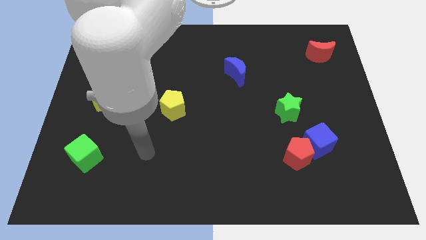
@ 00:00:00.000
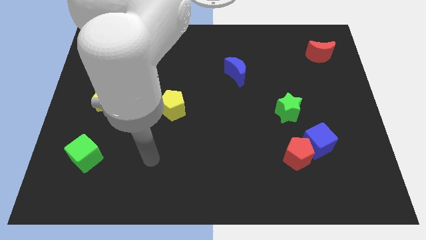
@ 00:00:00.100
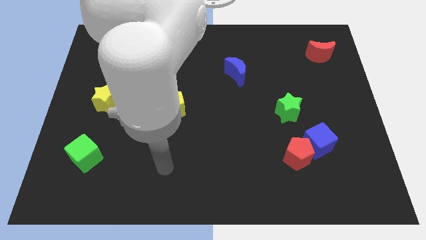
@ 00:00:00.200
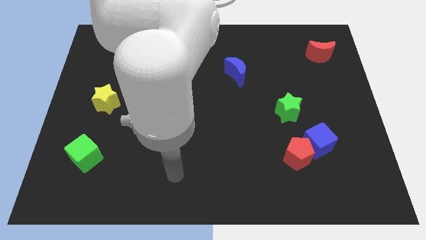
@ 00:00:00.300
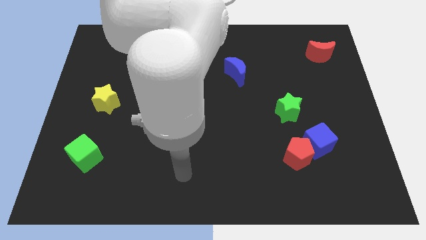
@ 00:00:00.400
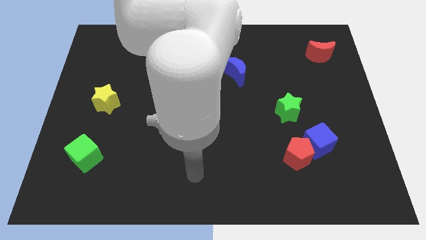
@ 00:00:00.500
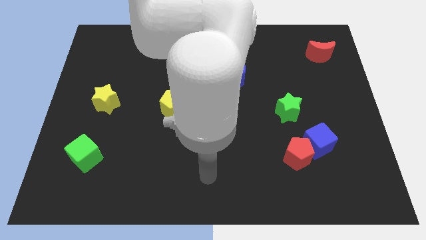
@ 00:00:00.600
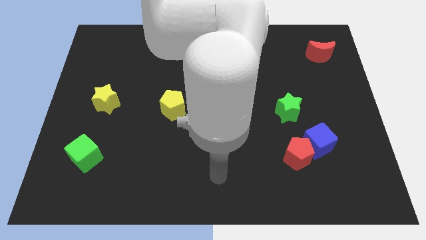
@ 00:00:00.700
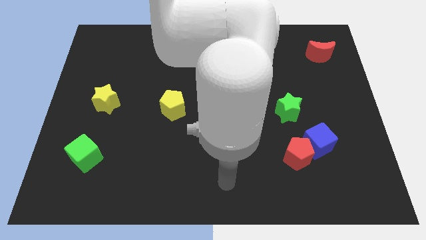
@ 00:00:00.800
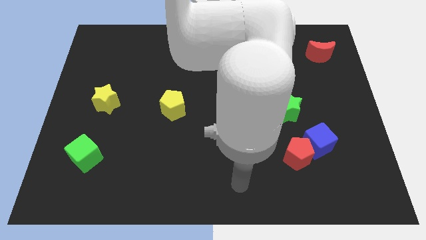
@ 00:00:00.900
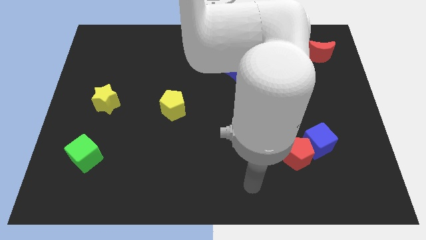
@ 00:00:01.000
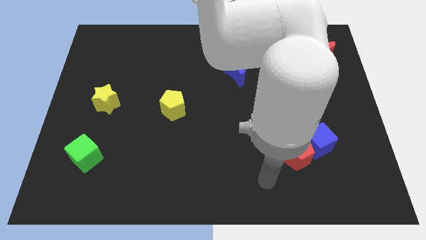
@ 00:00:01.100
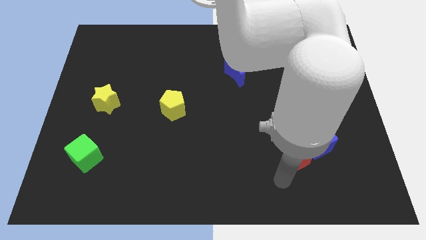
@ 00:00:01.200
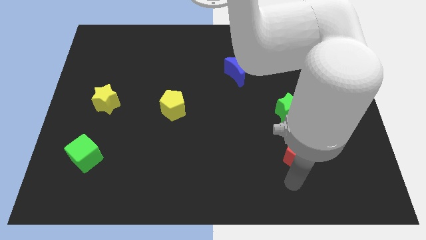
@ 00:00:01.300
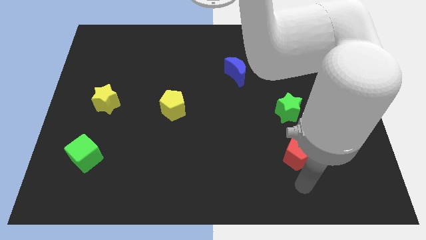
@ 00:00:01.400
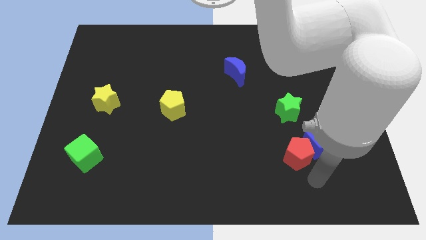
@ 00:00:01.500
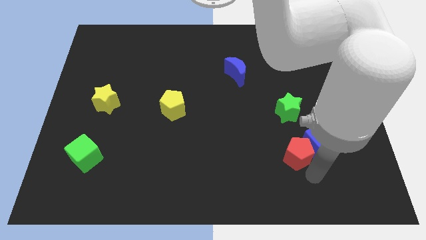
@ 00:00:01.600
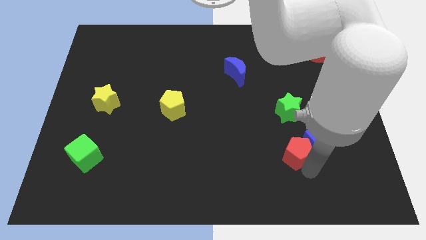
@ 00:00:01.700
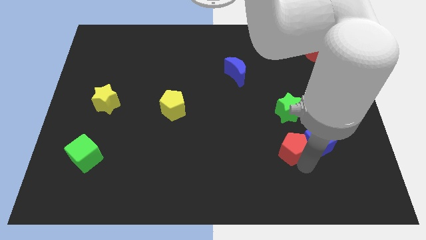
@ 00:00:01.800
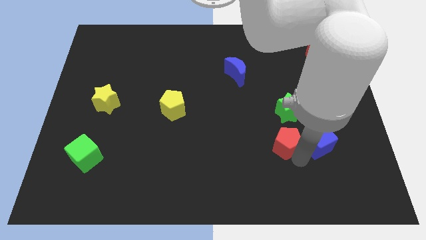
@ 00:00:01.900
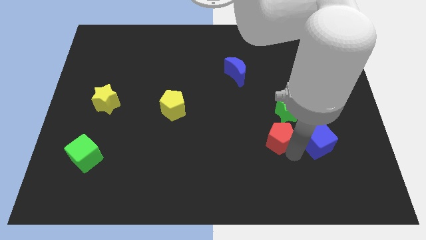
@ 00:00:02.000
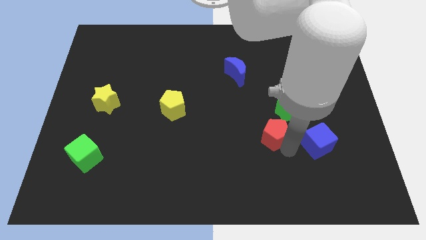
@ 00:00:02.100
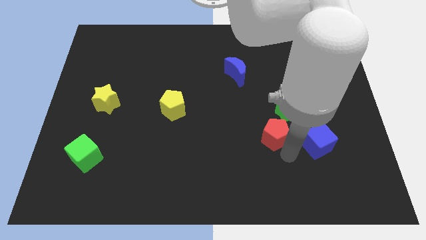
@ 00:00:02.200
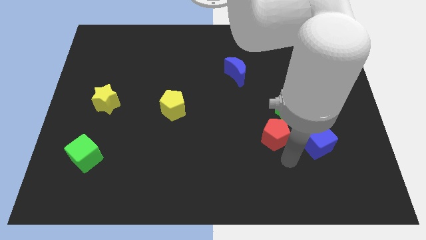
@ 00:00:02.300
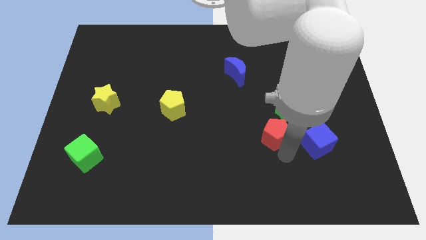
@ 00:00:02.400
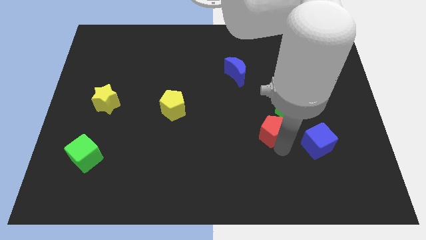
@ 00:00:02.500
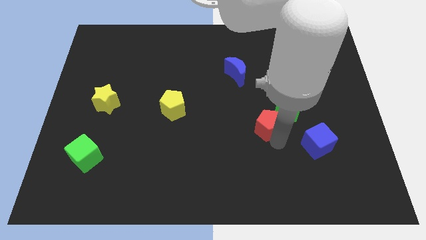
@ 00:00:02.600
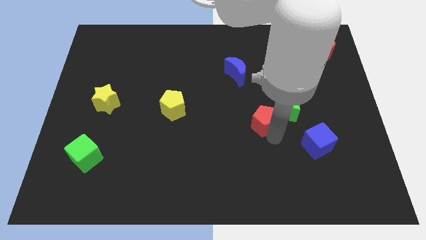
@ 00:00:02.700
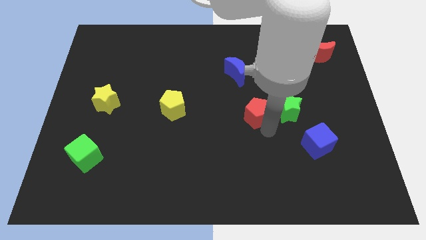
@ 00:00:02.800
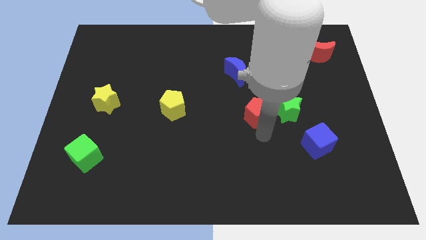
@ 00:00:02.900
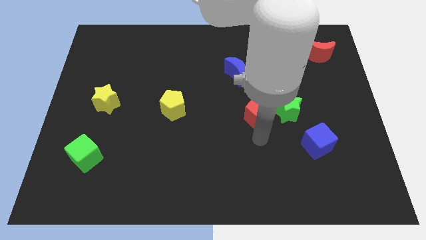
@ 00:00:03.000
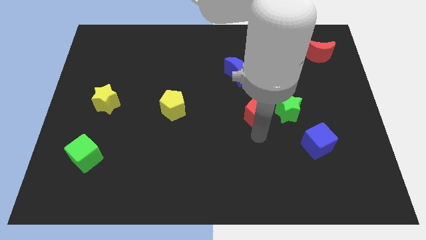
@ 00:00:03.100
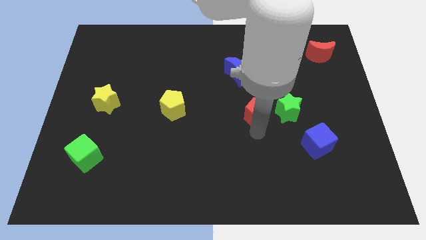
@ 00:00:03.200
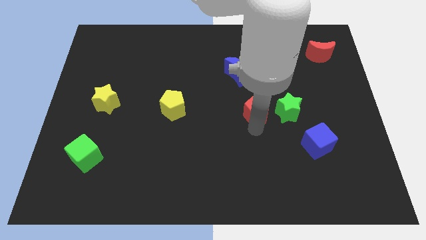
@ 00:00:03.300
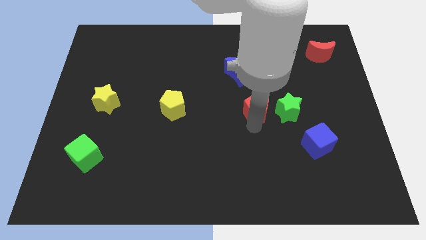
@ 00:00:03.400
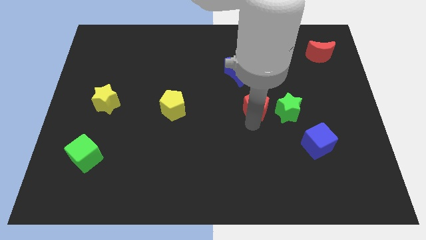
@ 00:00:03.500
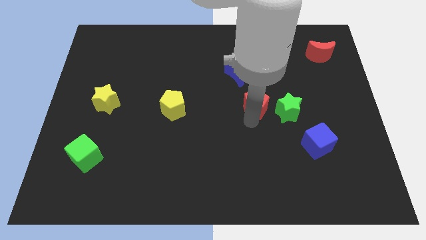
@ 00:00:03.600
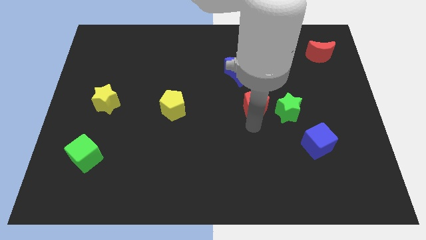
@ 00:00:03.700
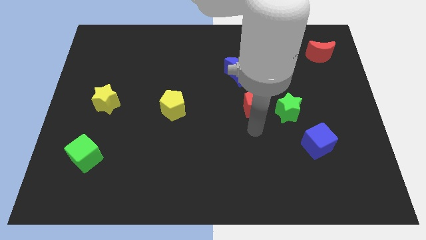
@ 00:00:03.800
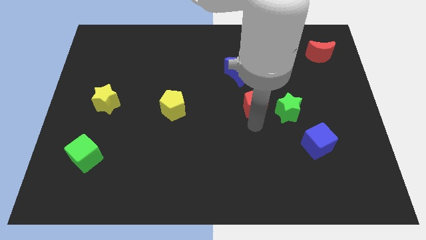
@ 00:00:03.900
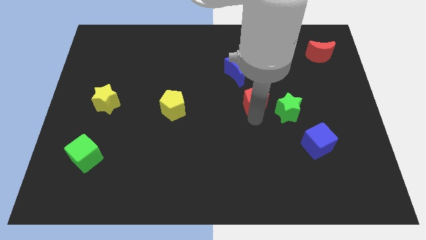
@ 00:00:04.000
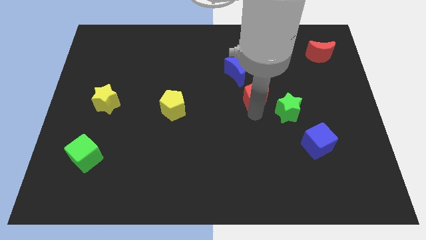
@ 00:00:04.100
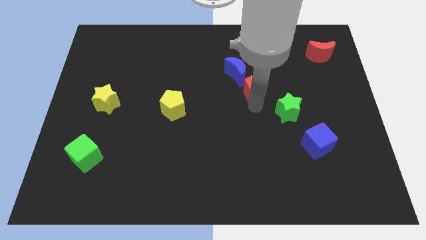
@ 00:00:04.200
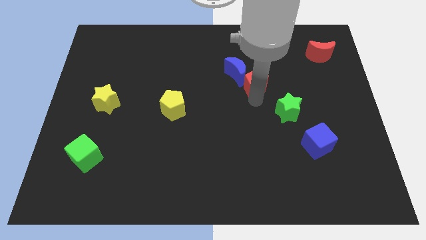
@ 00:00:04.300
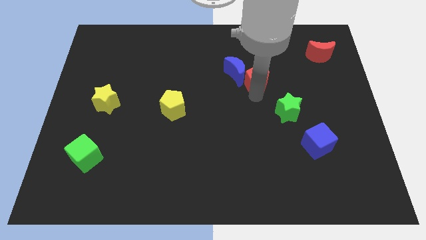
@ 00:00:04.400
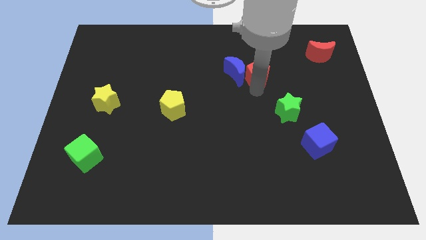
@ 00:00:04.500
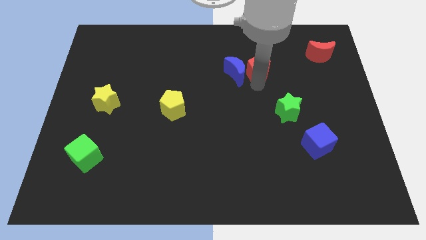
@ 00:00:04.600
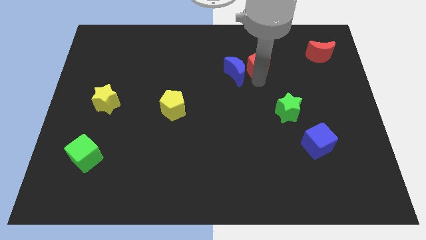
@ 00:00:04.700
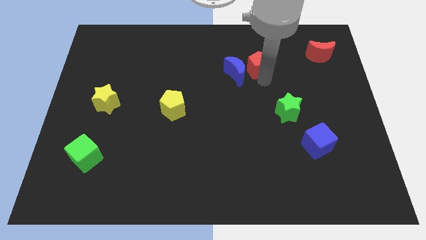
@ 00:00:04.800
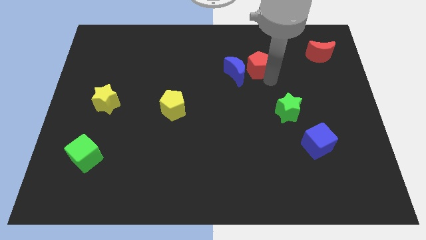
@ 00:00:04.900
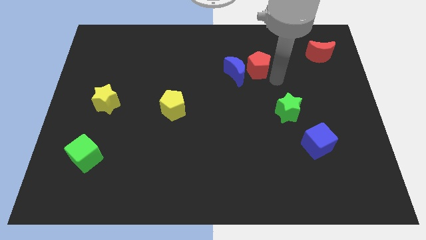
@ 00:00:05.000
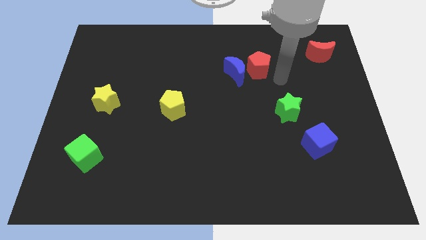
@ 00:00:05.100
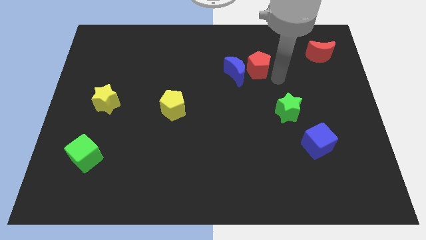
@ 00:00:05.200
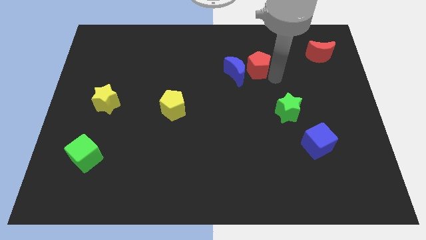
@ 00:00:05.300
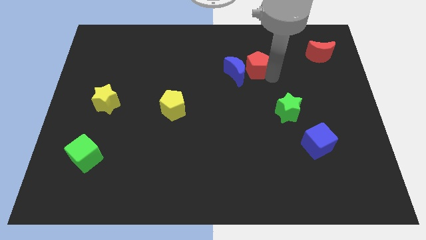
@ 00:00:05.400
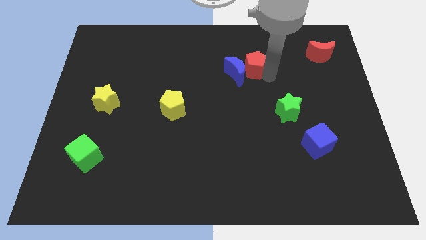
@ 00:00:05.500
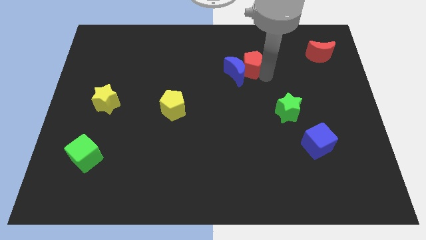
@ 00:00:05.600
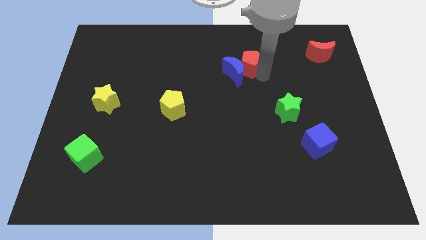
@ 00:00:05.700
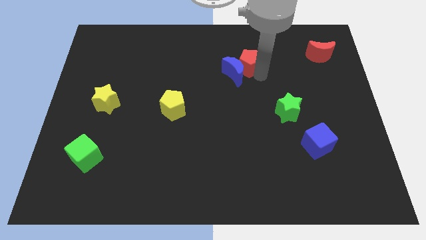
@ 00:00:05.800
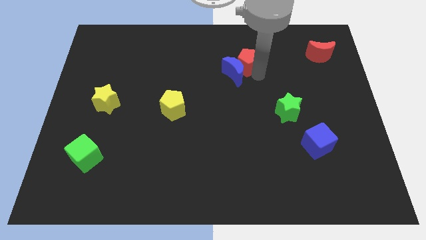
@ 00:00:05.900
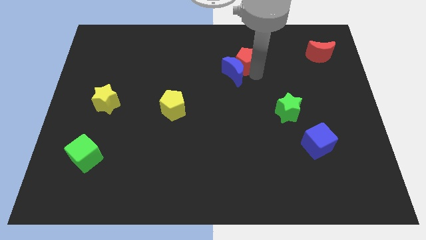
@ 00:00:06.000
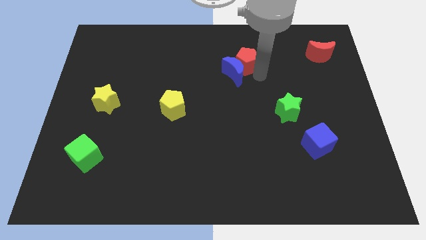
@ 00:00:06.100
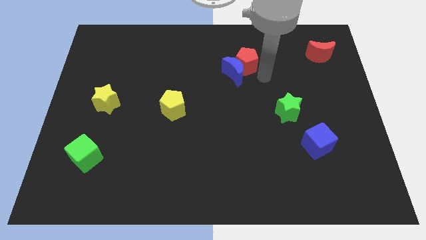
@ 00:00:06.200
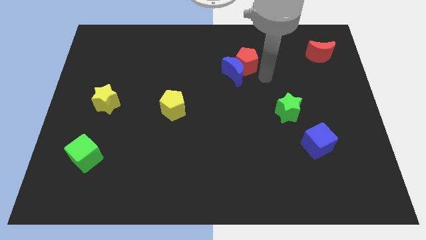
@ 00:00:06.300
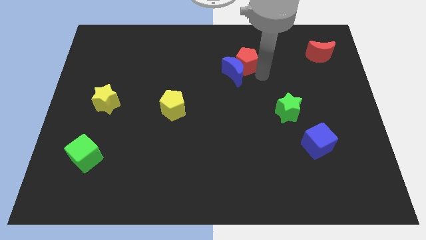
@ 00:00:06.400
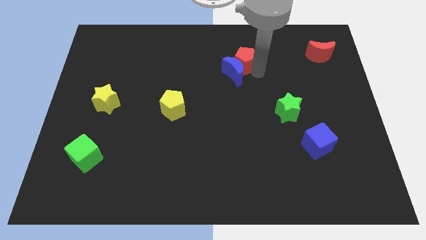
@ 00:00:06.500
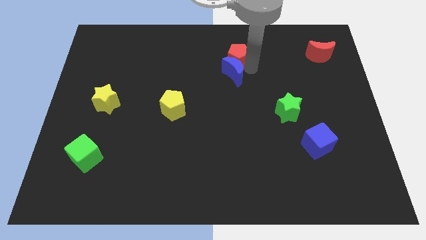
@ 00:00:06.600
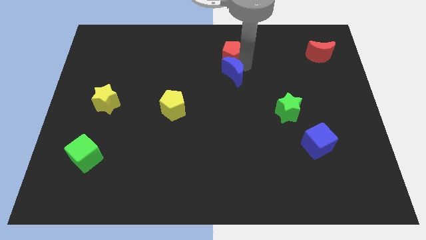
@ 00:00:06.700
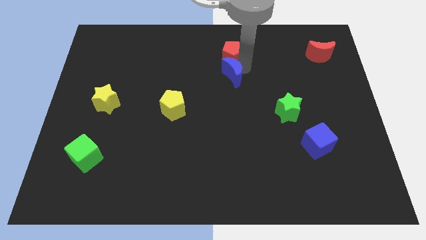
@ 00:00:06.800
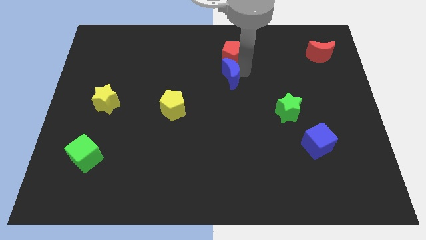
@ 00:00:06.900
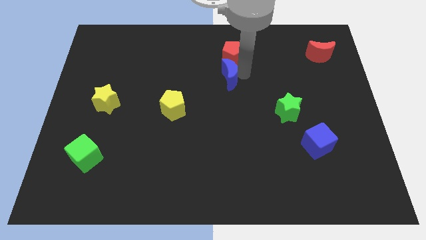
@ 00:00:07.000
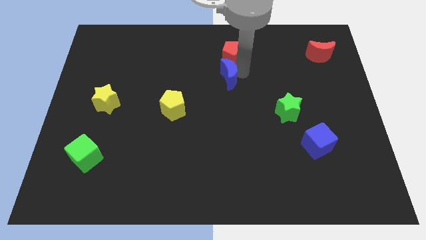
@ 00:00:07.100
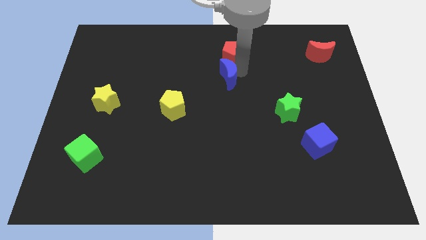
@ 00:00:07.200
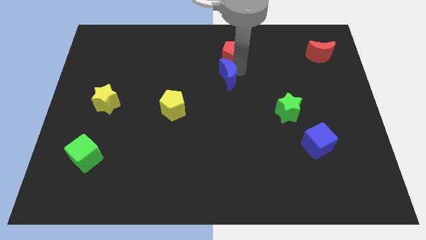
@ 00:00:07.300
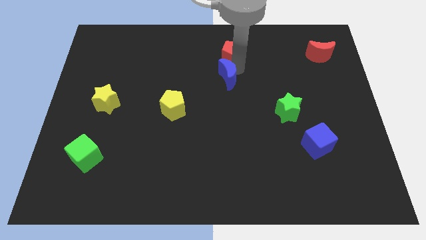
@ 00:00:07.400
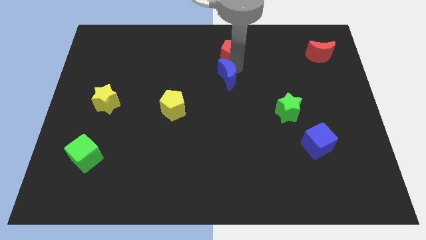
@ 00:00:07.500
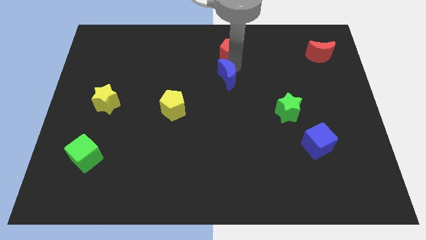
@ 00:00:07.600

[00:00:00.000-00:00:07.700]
slide the red pentagon to the top
